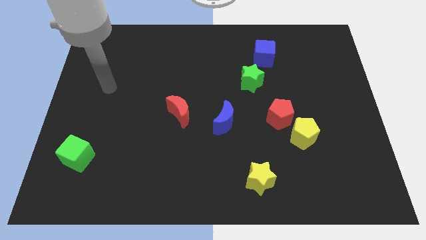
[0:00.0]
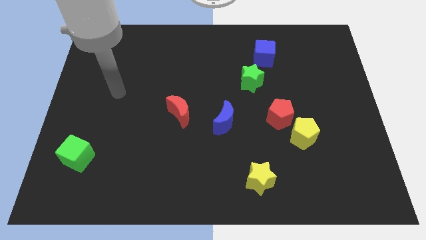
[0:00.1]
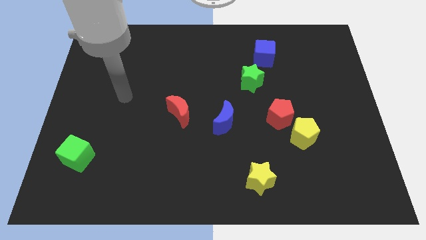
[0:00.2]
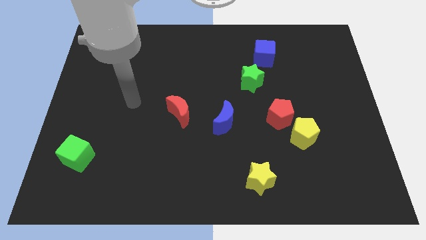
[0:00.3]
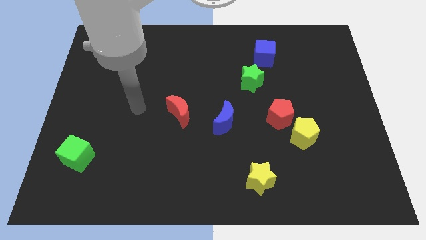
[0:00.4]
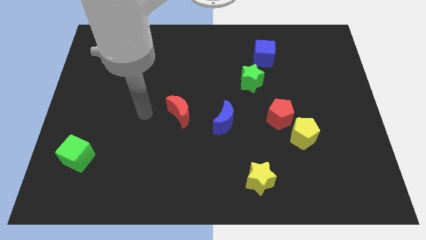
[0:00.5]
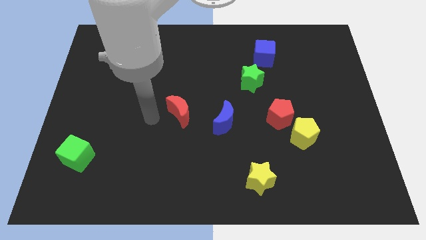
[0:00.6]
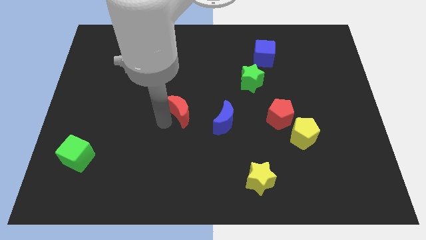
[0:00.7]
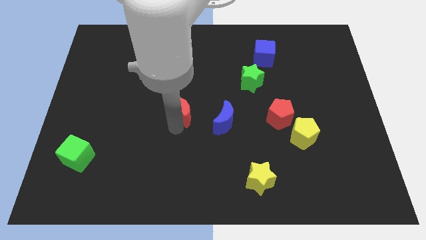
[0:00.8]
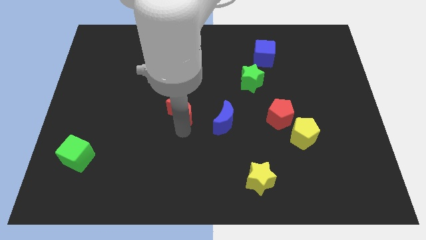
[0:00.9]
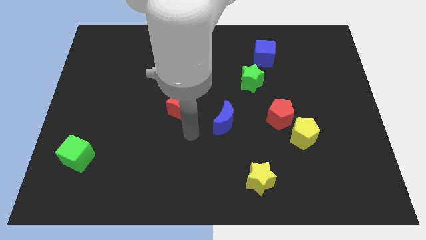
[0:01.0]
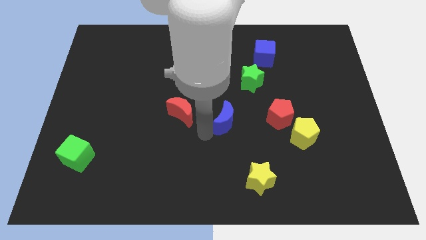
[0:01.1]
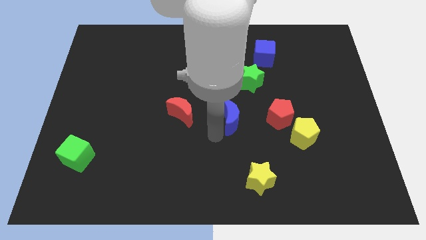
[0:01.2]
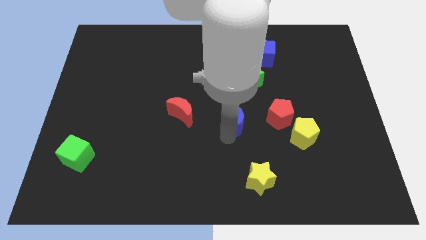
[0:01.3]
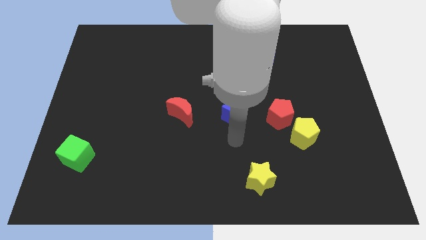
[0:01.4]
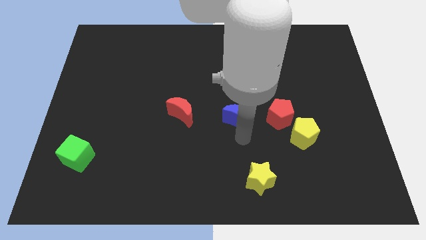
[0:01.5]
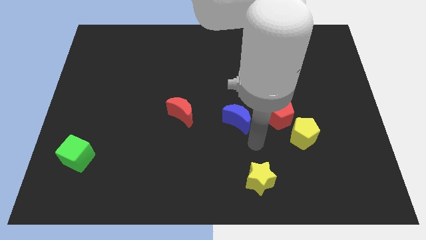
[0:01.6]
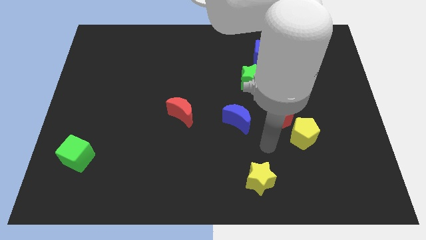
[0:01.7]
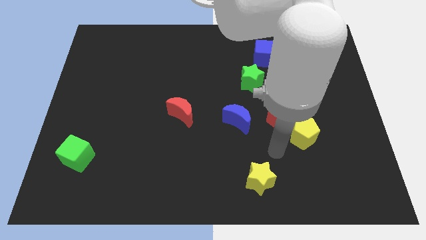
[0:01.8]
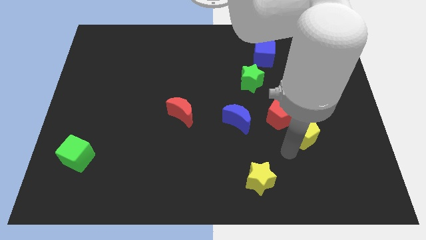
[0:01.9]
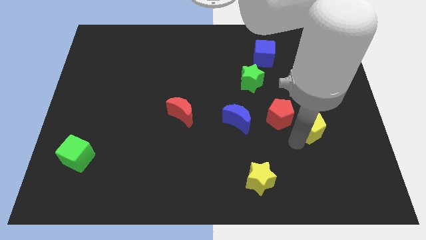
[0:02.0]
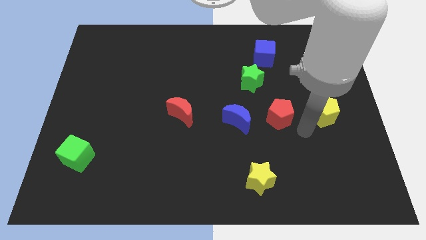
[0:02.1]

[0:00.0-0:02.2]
move the red pentagon away from the yellow pentagon

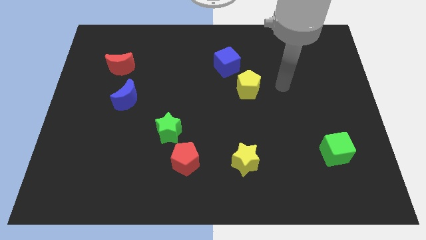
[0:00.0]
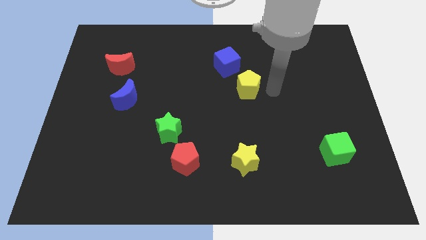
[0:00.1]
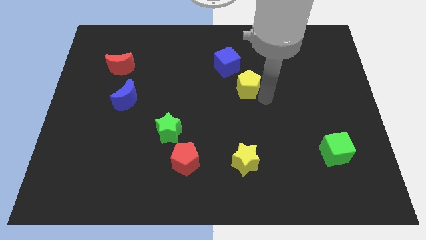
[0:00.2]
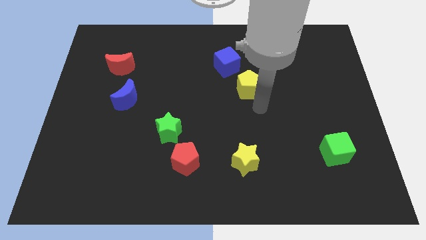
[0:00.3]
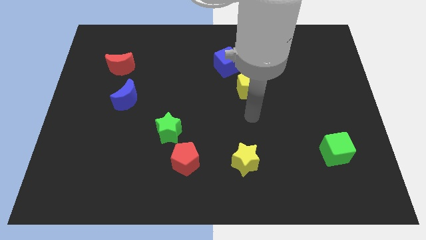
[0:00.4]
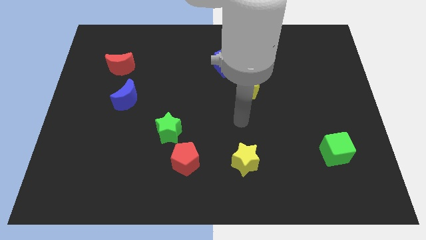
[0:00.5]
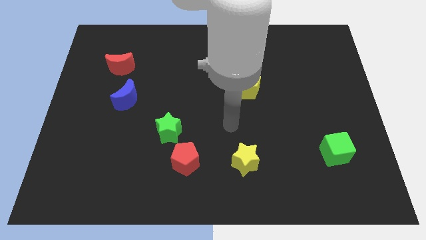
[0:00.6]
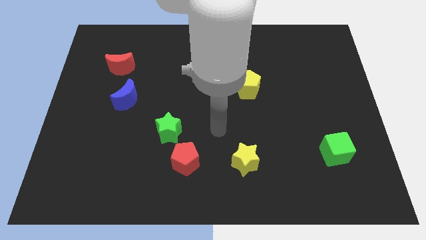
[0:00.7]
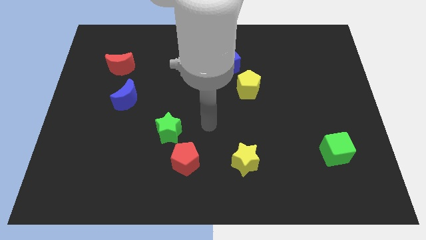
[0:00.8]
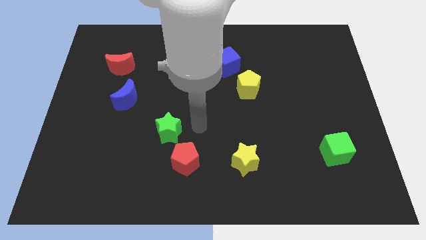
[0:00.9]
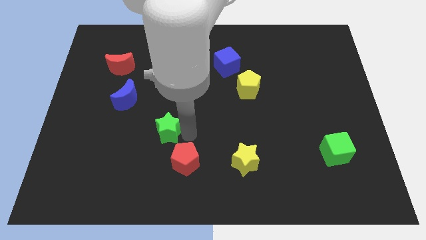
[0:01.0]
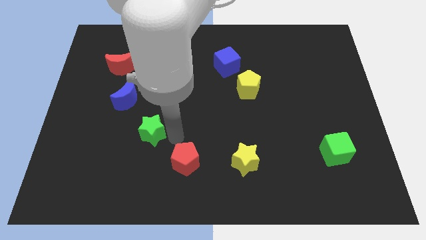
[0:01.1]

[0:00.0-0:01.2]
separate the red pentagon from the green star

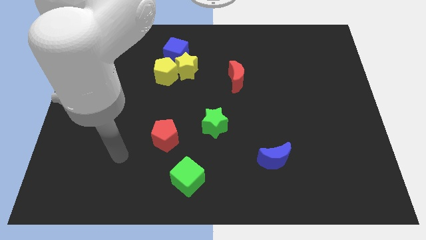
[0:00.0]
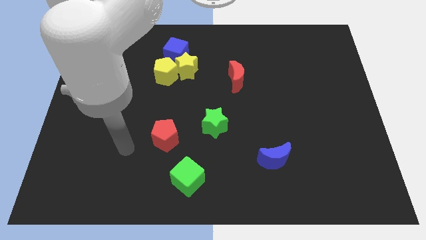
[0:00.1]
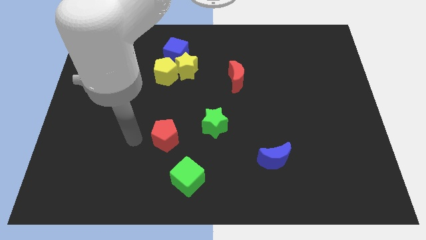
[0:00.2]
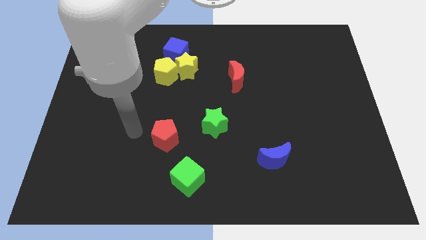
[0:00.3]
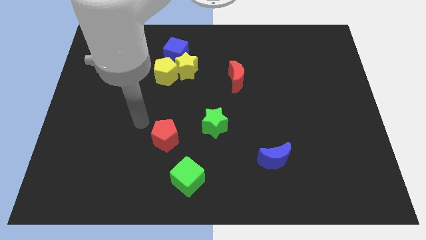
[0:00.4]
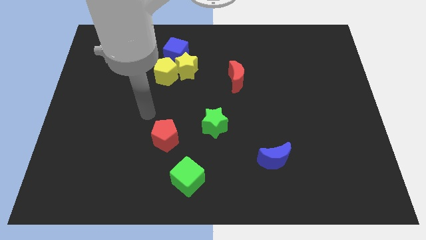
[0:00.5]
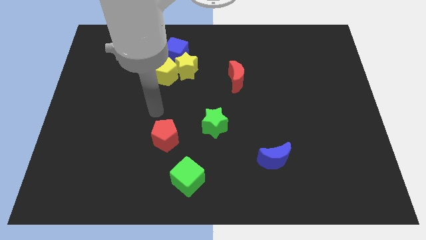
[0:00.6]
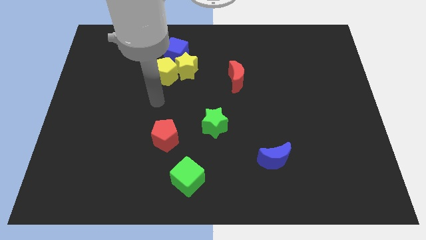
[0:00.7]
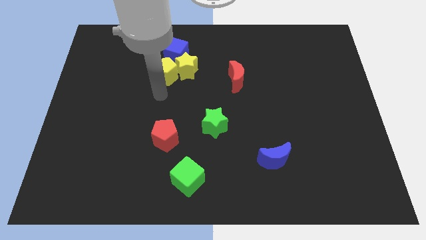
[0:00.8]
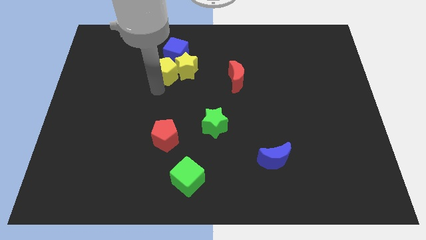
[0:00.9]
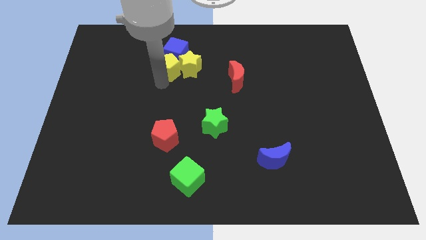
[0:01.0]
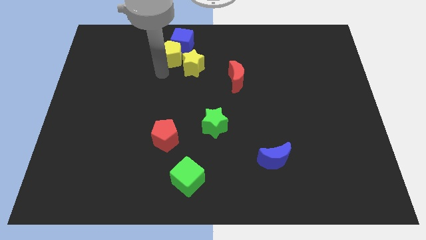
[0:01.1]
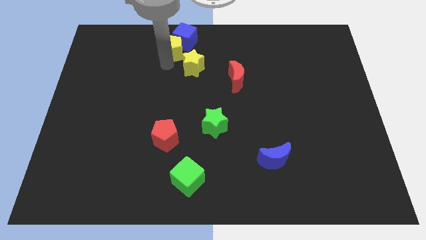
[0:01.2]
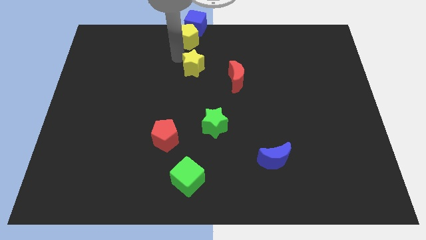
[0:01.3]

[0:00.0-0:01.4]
pull the yellow star apart from the yellow pentagon and blue cube

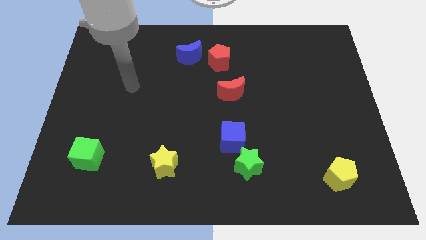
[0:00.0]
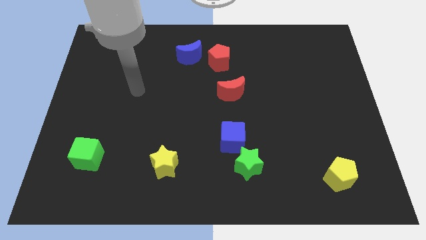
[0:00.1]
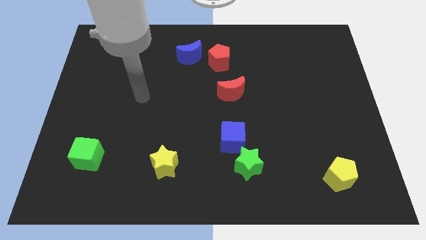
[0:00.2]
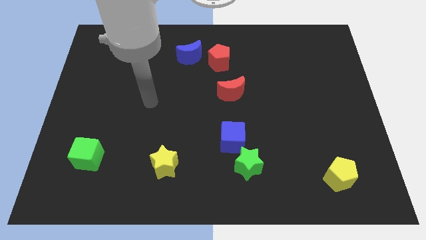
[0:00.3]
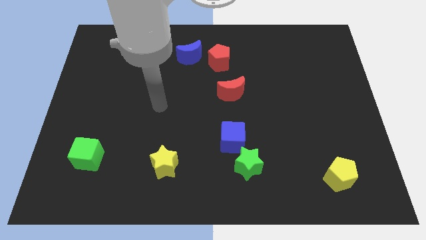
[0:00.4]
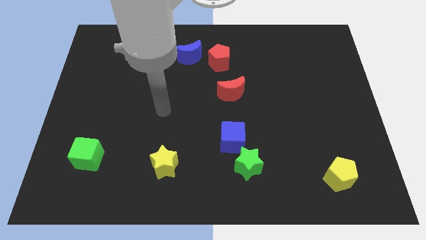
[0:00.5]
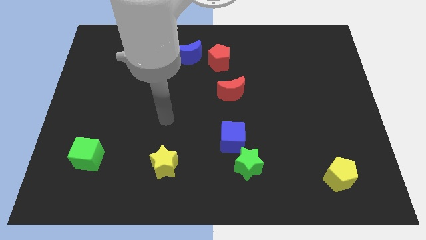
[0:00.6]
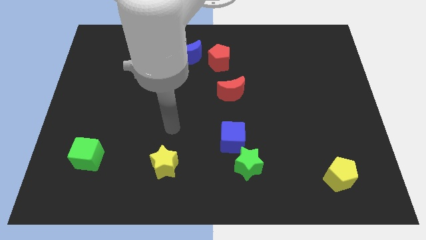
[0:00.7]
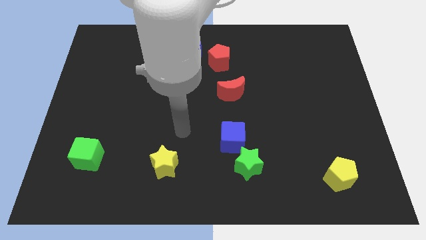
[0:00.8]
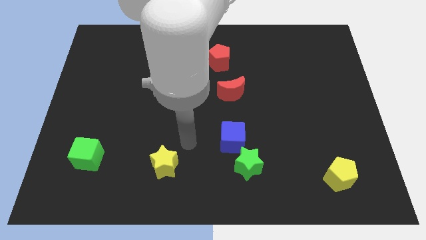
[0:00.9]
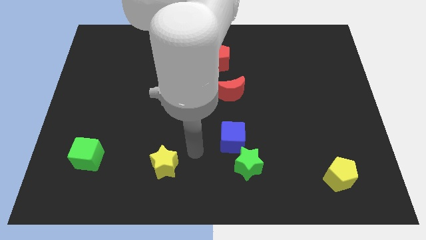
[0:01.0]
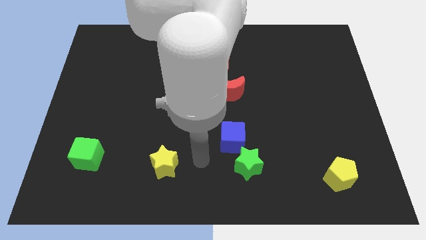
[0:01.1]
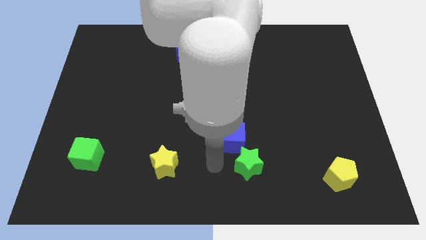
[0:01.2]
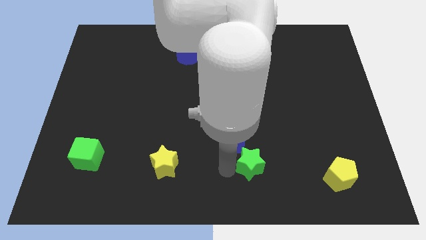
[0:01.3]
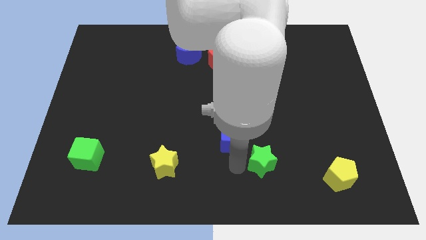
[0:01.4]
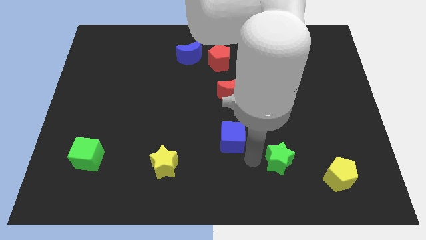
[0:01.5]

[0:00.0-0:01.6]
pull the blue cube apart from the green star

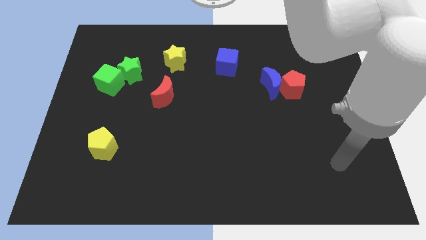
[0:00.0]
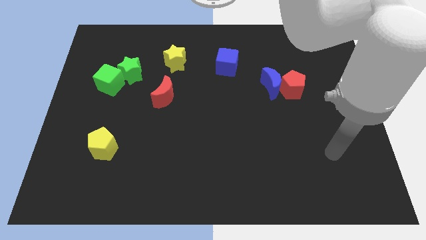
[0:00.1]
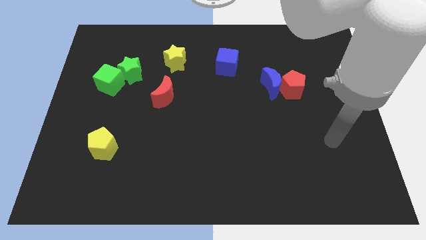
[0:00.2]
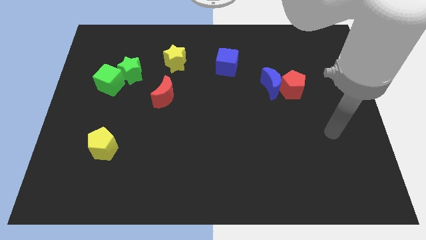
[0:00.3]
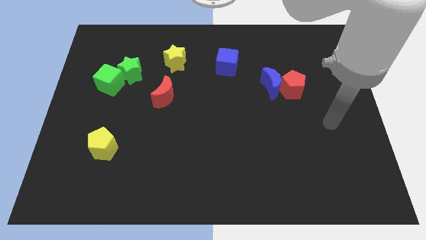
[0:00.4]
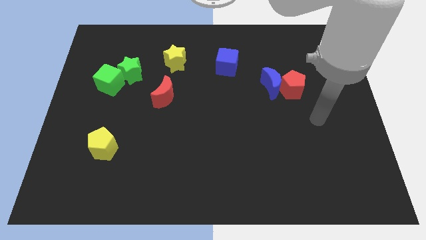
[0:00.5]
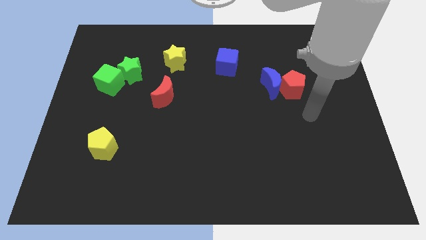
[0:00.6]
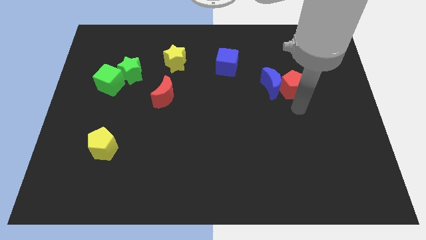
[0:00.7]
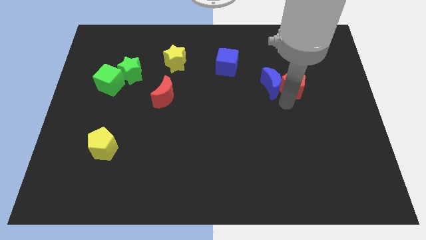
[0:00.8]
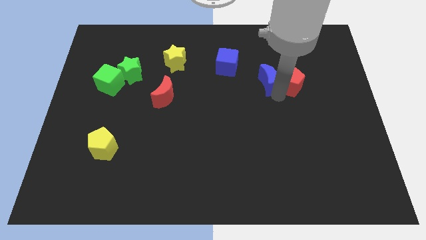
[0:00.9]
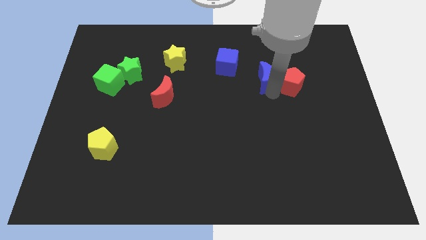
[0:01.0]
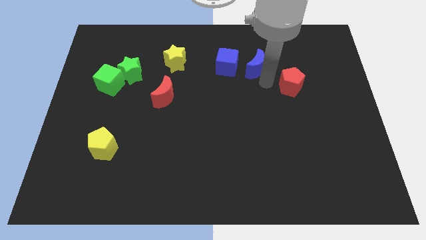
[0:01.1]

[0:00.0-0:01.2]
separate the red pentagon from the blue moon

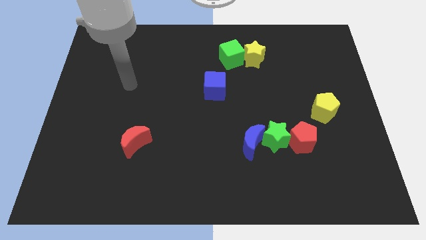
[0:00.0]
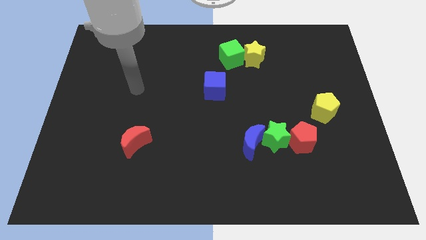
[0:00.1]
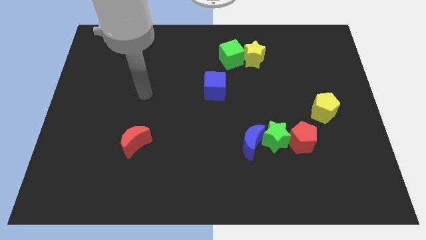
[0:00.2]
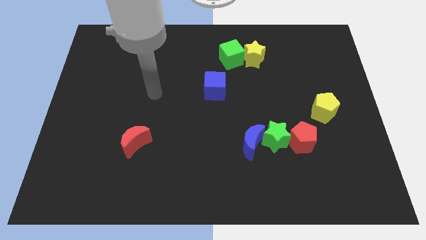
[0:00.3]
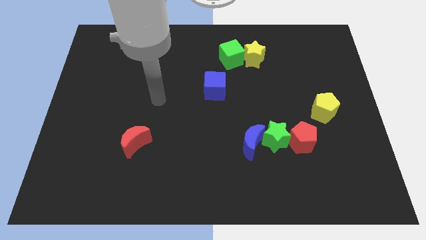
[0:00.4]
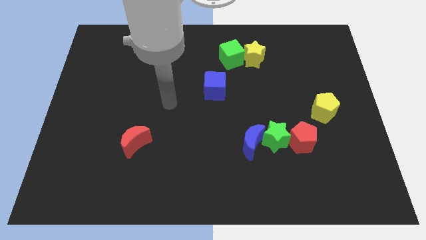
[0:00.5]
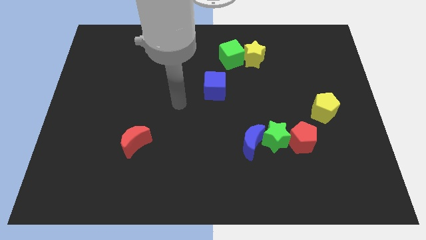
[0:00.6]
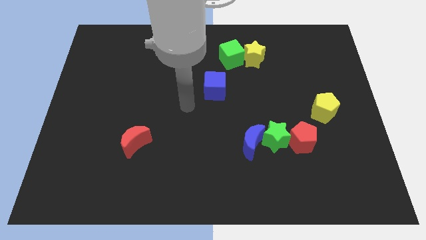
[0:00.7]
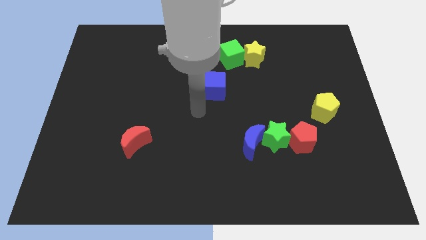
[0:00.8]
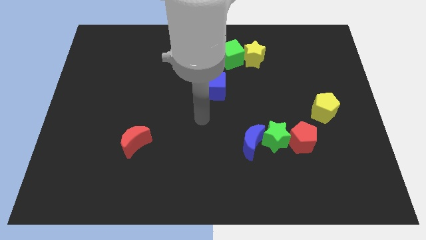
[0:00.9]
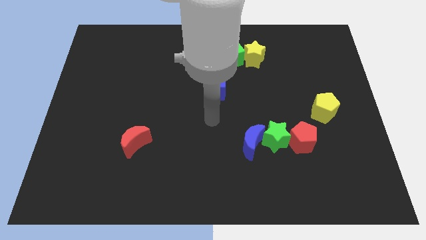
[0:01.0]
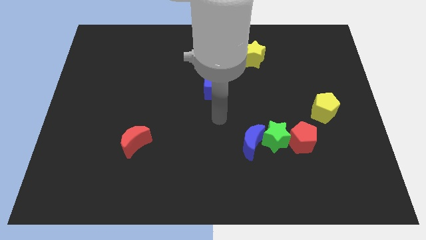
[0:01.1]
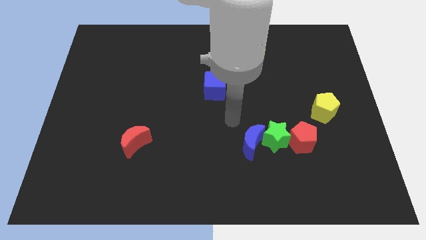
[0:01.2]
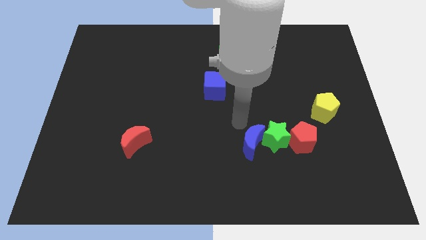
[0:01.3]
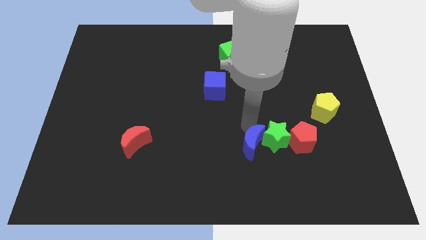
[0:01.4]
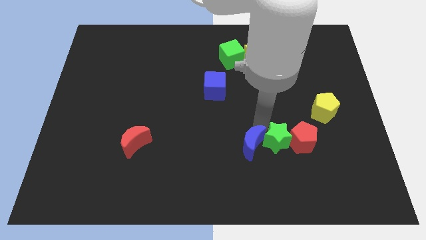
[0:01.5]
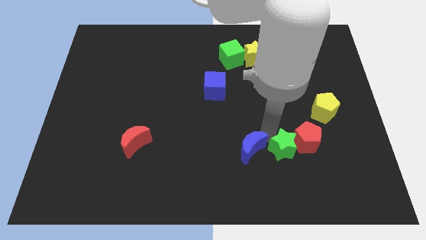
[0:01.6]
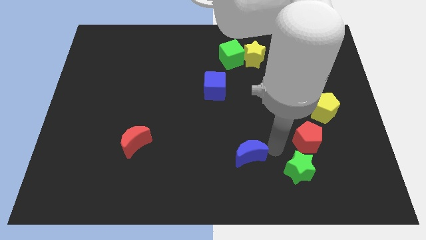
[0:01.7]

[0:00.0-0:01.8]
pull the blue moon apart from the green star

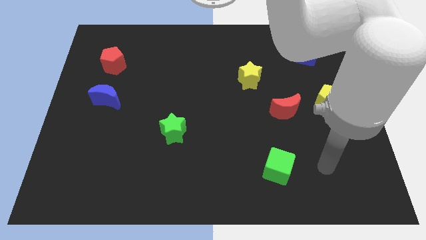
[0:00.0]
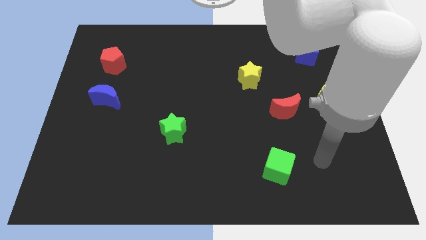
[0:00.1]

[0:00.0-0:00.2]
pull the red moon apart from the yellow pentagon
